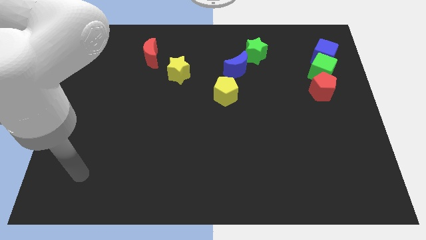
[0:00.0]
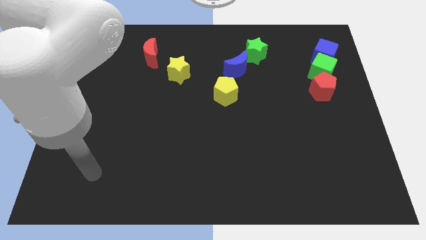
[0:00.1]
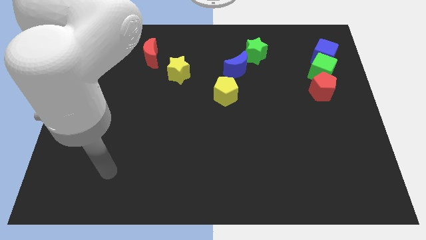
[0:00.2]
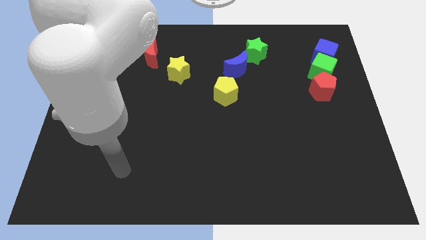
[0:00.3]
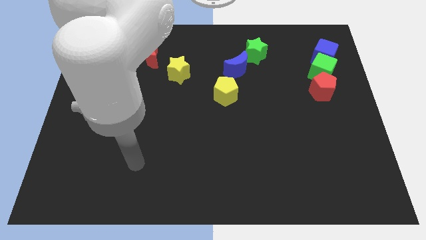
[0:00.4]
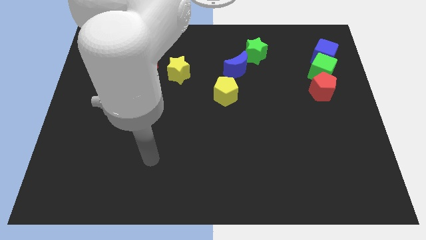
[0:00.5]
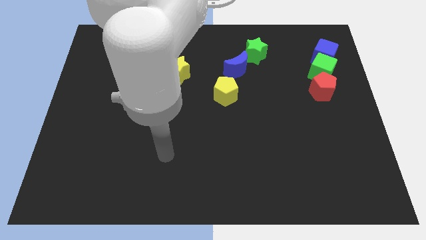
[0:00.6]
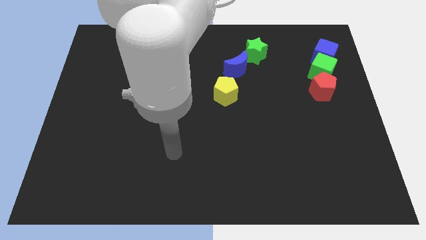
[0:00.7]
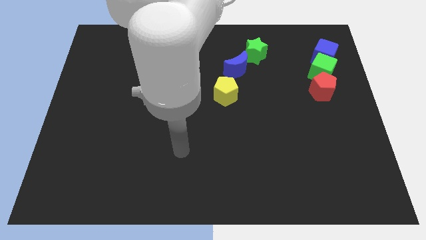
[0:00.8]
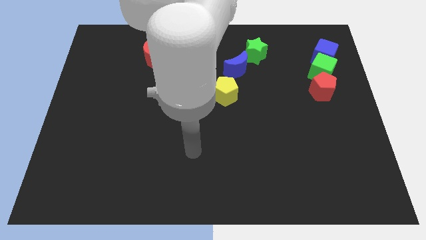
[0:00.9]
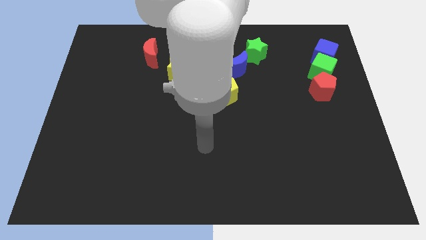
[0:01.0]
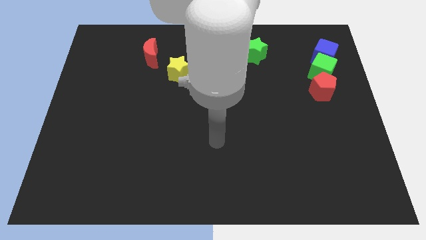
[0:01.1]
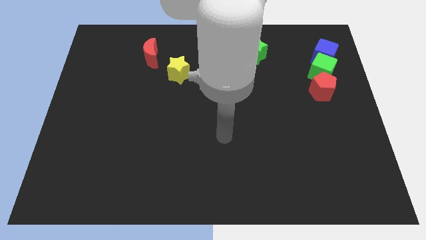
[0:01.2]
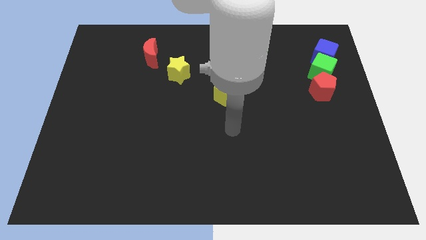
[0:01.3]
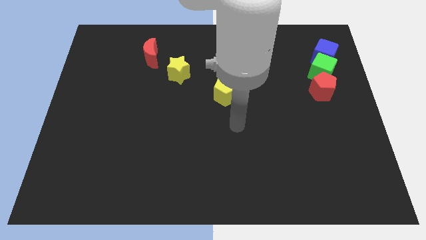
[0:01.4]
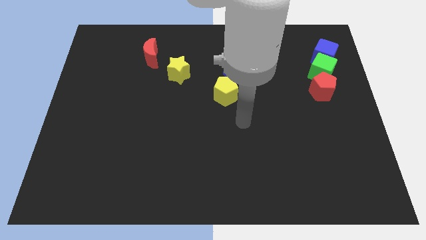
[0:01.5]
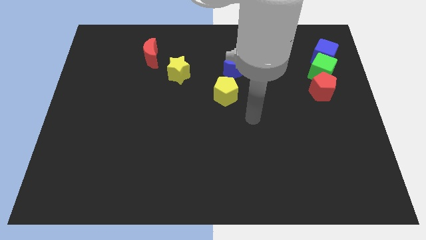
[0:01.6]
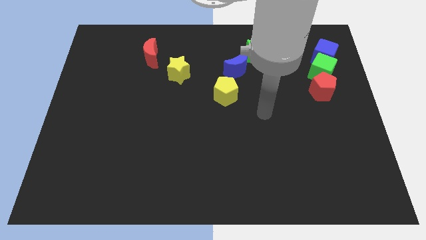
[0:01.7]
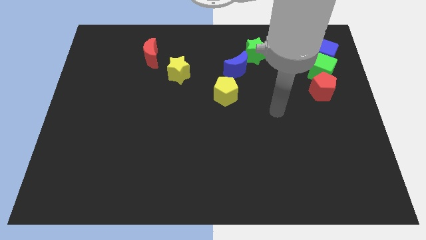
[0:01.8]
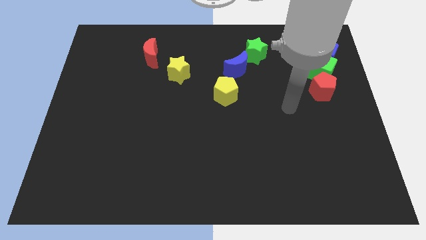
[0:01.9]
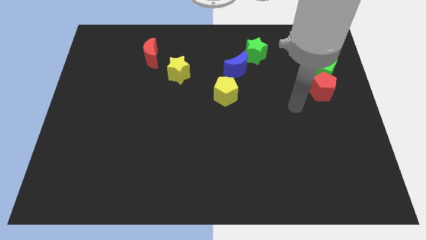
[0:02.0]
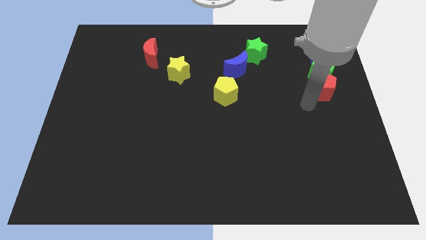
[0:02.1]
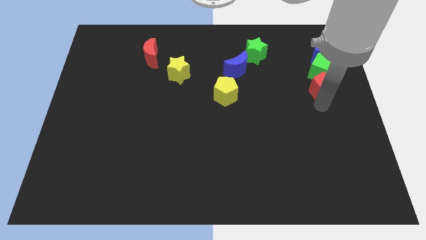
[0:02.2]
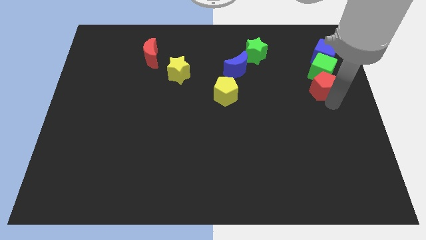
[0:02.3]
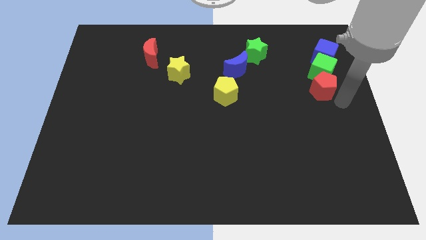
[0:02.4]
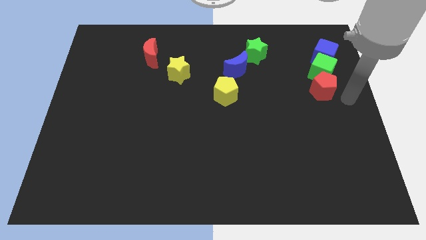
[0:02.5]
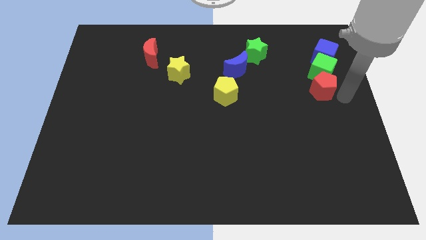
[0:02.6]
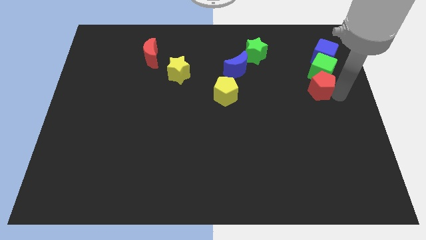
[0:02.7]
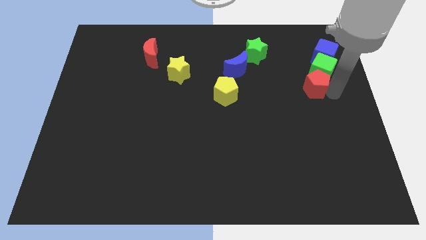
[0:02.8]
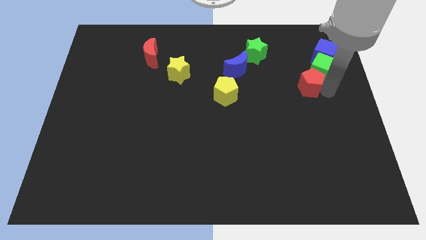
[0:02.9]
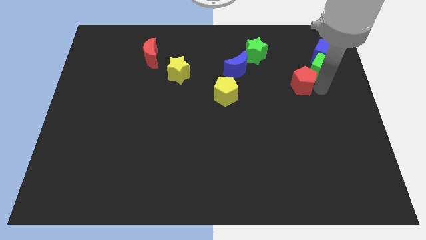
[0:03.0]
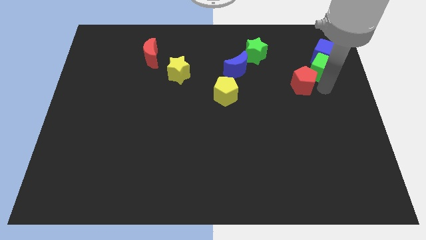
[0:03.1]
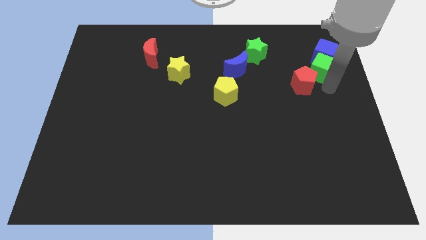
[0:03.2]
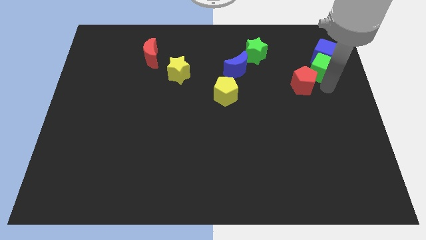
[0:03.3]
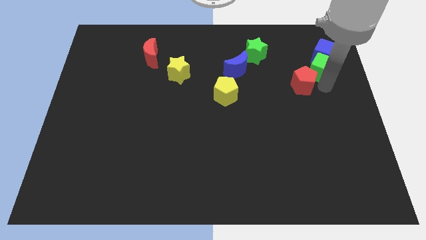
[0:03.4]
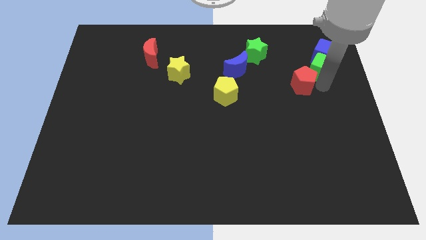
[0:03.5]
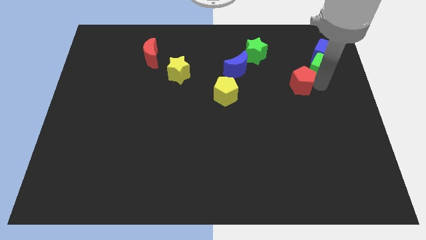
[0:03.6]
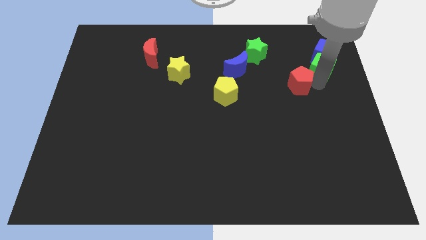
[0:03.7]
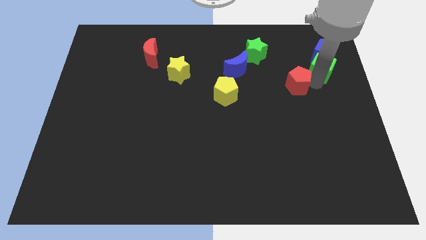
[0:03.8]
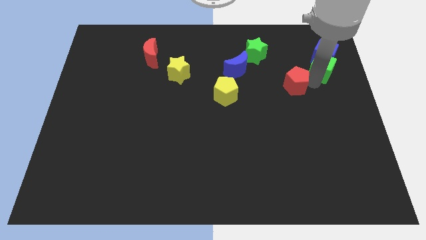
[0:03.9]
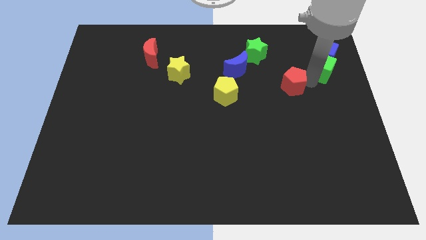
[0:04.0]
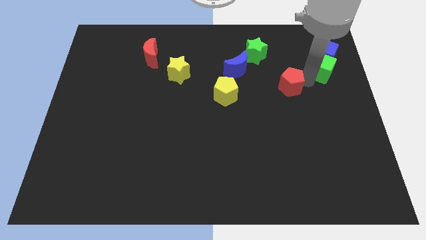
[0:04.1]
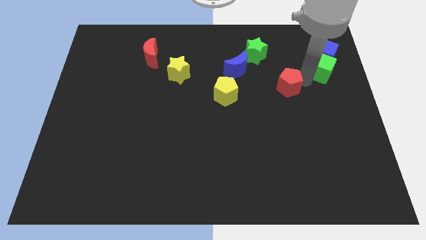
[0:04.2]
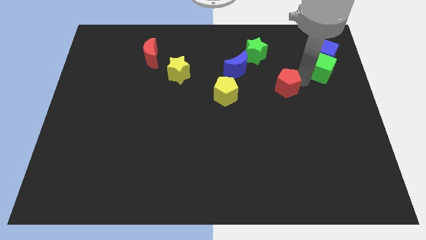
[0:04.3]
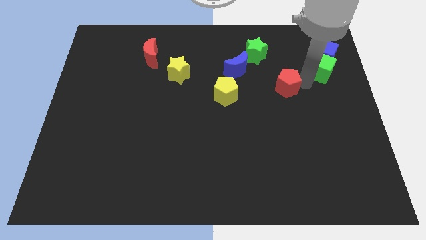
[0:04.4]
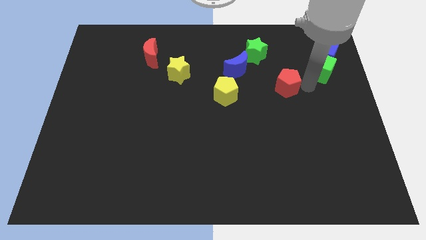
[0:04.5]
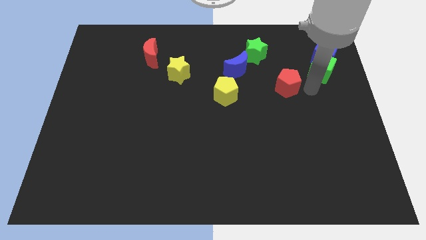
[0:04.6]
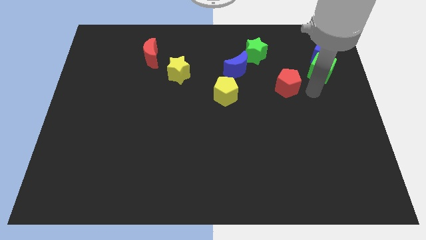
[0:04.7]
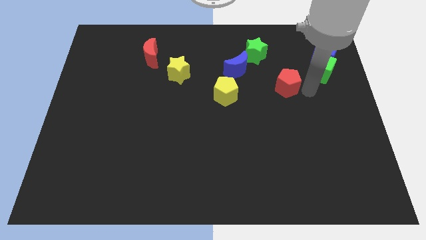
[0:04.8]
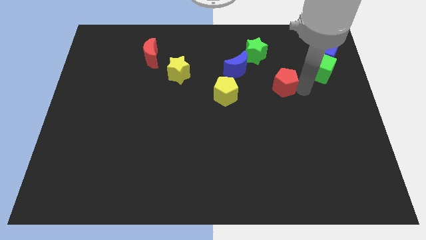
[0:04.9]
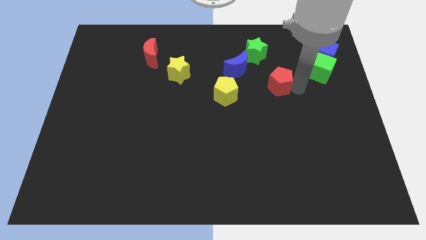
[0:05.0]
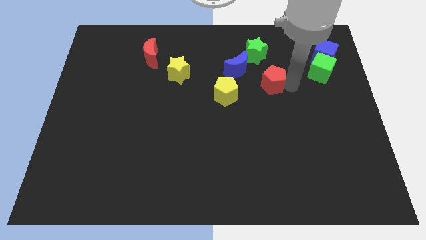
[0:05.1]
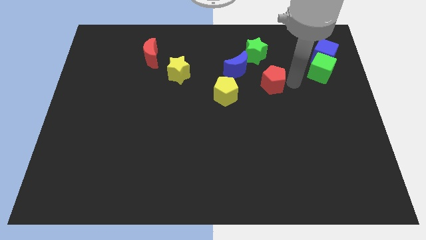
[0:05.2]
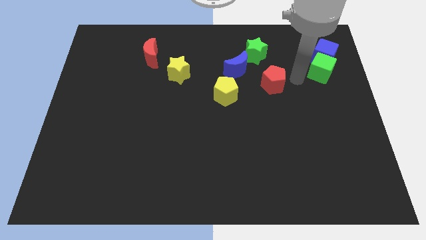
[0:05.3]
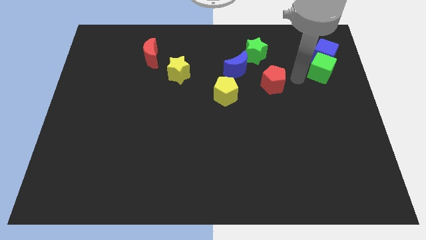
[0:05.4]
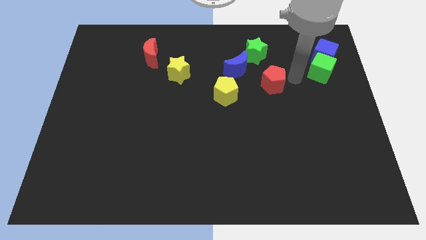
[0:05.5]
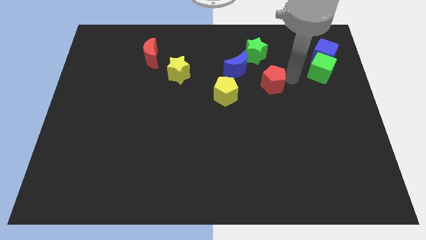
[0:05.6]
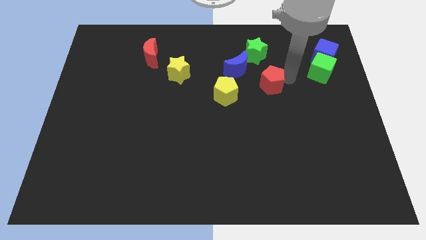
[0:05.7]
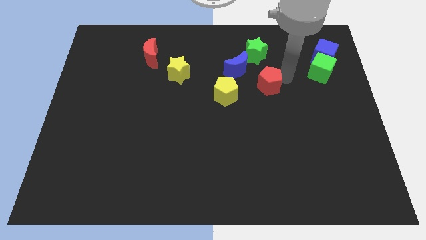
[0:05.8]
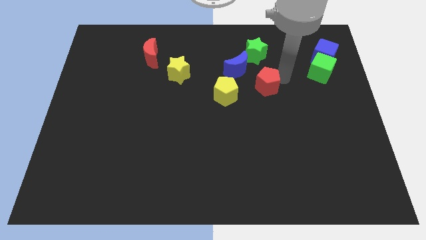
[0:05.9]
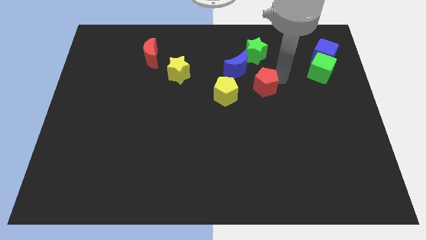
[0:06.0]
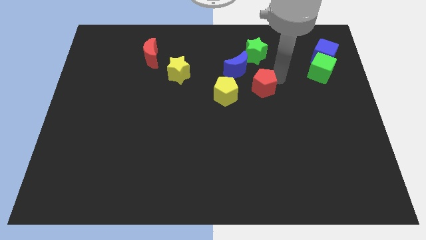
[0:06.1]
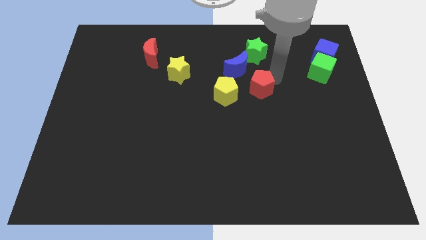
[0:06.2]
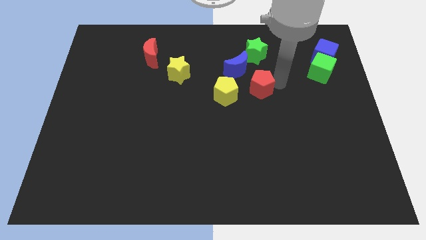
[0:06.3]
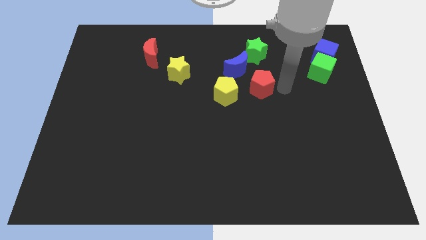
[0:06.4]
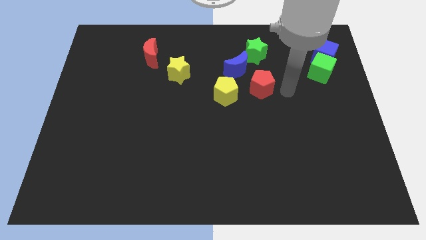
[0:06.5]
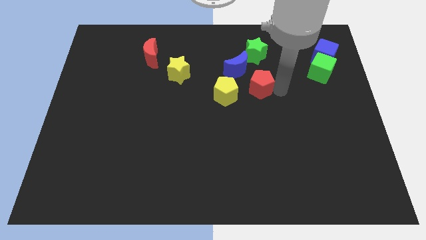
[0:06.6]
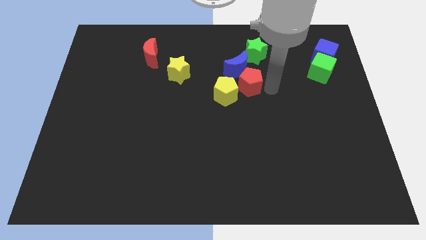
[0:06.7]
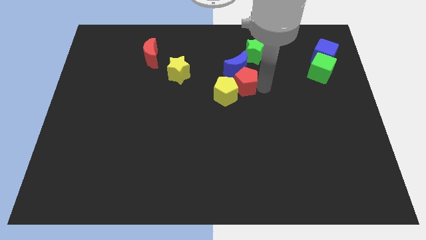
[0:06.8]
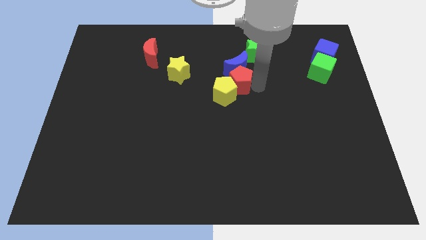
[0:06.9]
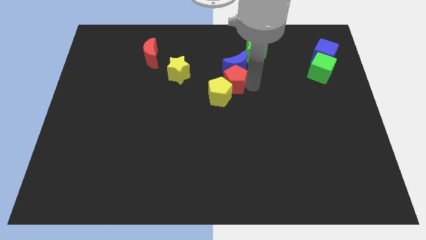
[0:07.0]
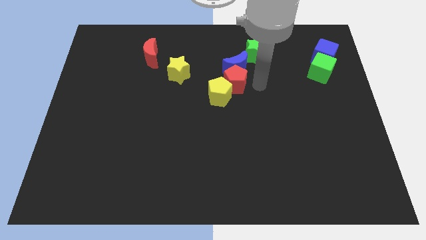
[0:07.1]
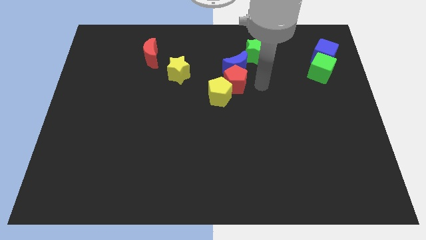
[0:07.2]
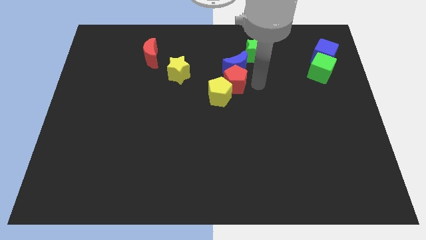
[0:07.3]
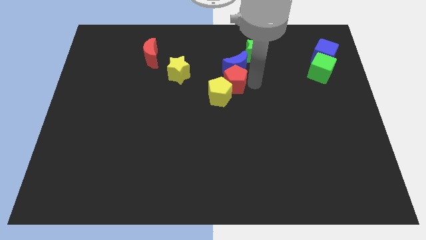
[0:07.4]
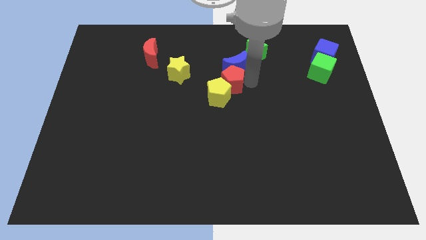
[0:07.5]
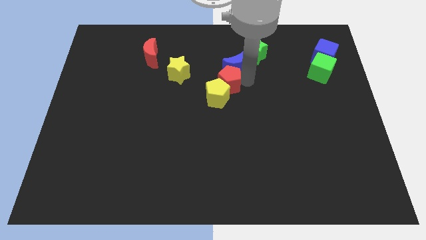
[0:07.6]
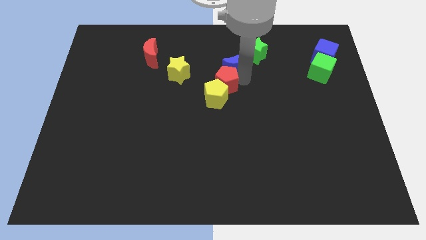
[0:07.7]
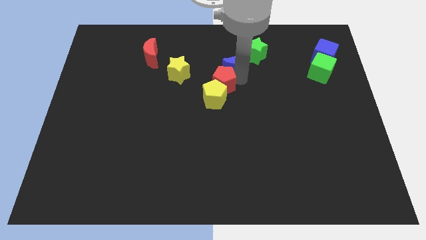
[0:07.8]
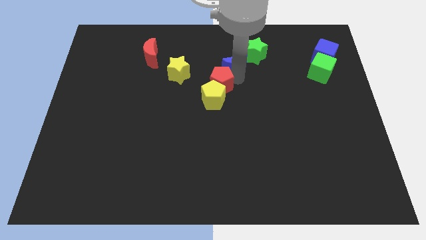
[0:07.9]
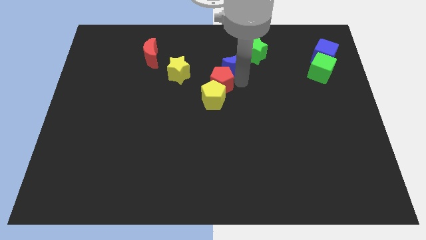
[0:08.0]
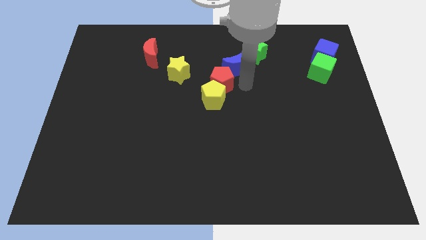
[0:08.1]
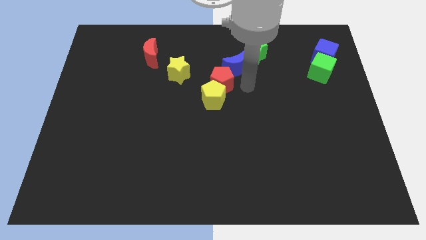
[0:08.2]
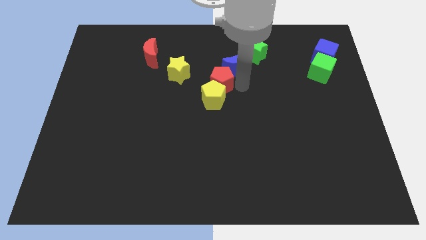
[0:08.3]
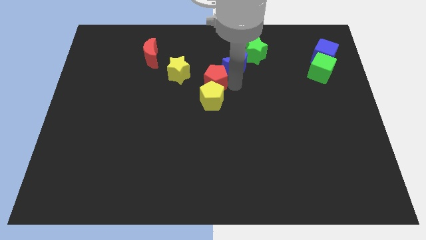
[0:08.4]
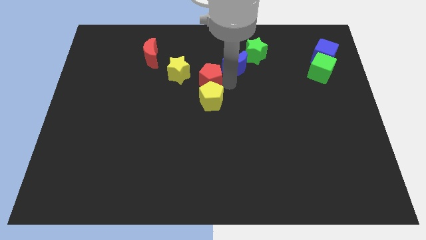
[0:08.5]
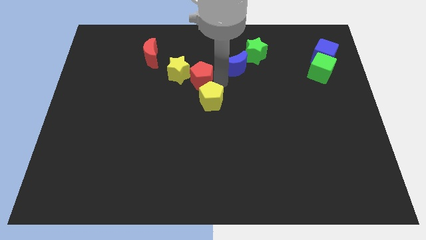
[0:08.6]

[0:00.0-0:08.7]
put the red pentagon close to the yellow star
